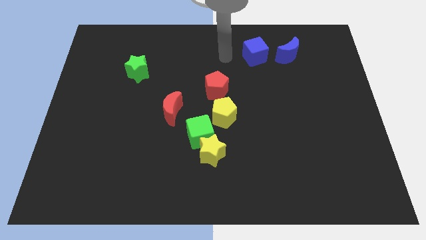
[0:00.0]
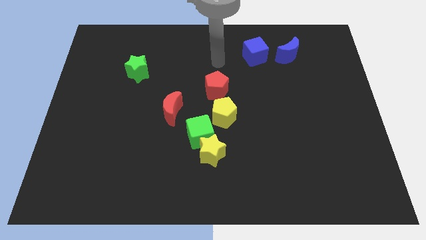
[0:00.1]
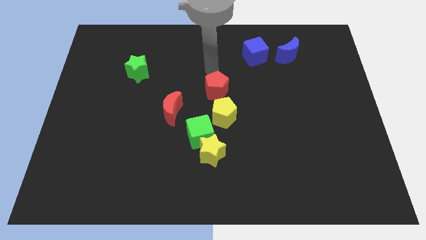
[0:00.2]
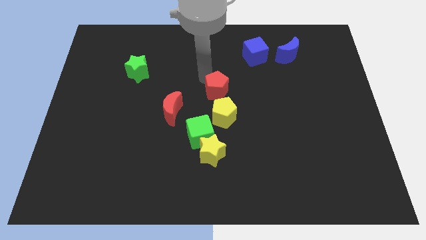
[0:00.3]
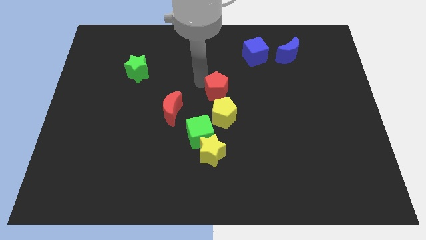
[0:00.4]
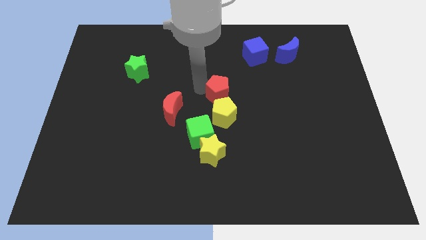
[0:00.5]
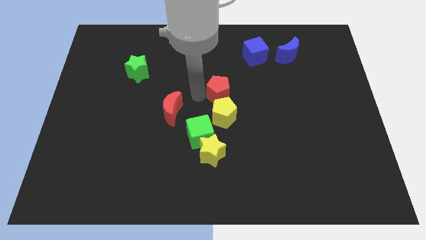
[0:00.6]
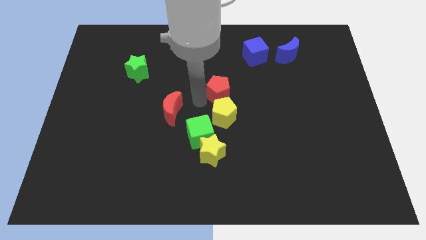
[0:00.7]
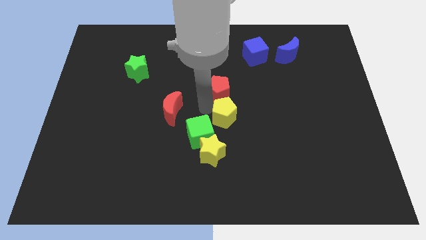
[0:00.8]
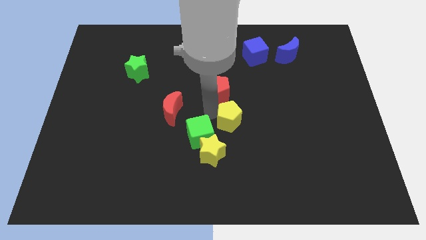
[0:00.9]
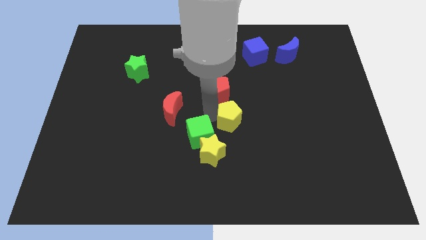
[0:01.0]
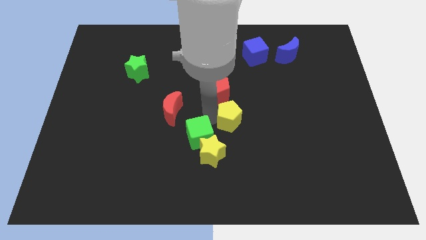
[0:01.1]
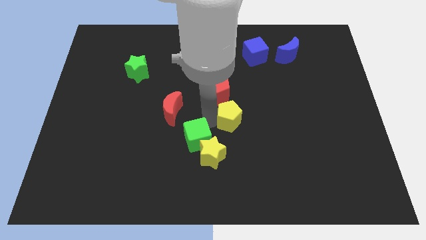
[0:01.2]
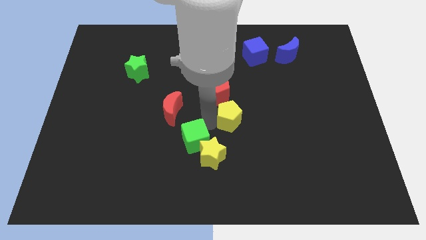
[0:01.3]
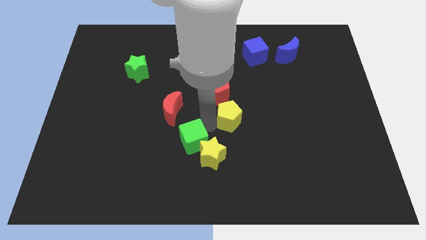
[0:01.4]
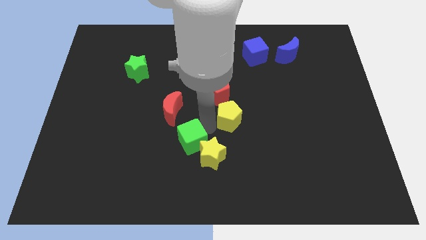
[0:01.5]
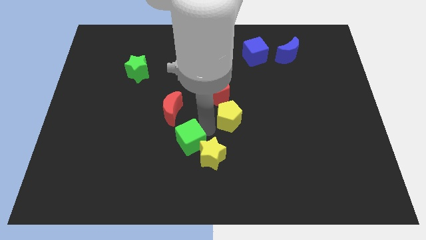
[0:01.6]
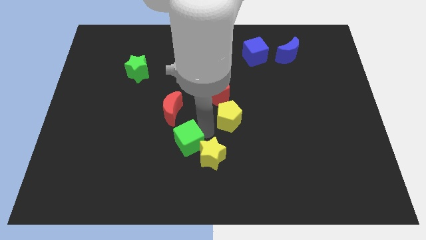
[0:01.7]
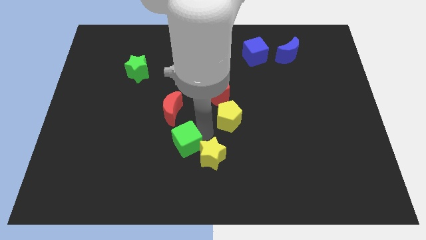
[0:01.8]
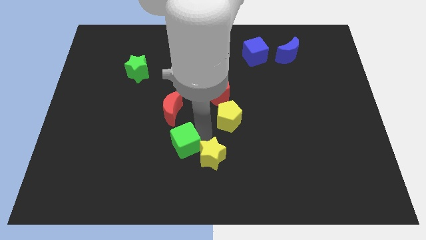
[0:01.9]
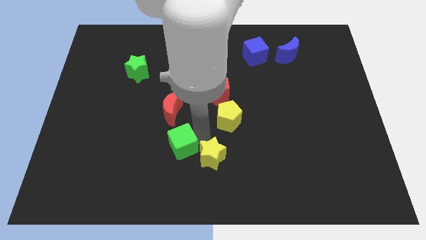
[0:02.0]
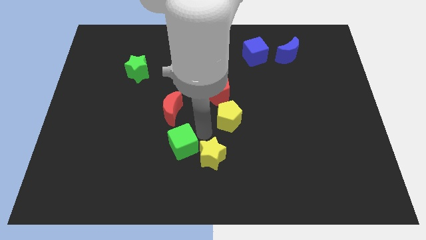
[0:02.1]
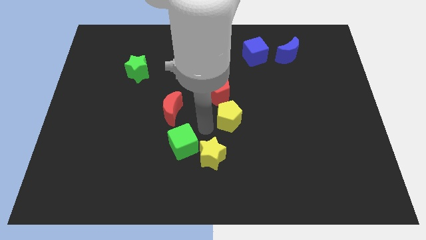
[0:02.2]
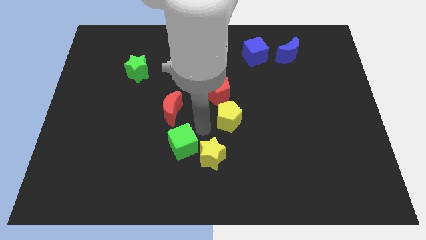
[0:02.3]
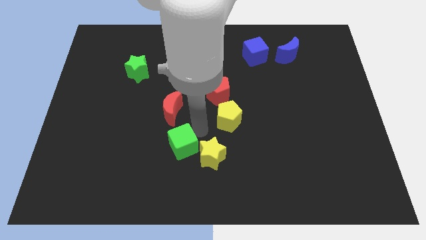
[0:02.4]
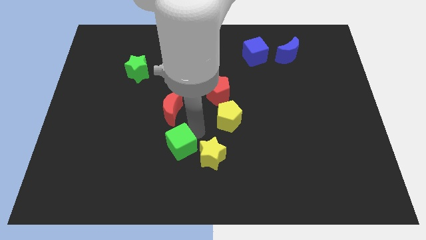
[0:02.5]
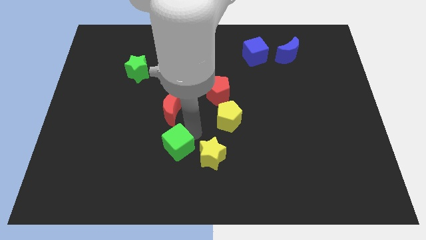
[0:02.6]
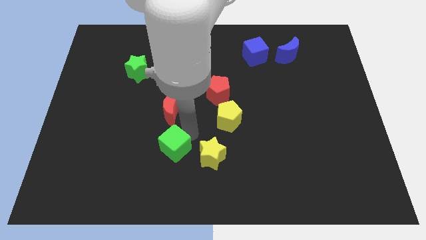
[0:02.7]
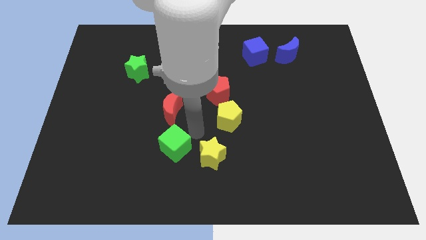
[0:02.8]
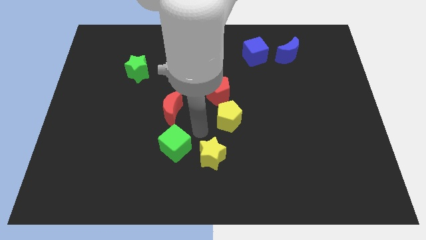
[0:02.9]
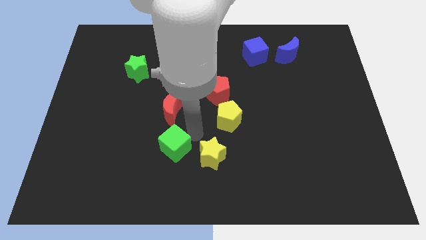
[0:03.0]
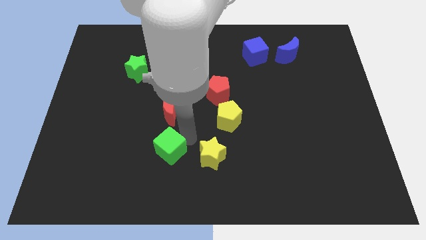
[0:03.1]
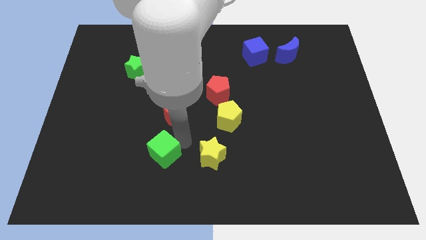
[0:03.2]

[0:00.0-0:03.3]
separate the green cube from the group

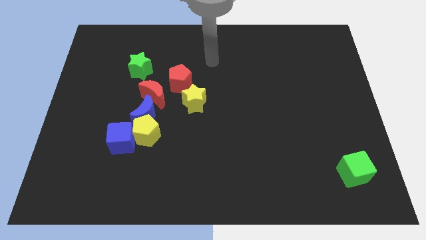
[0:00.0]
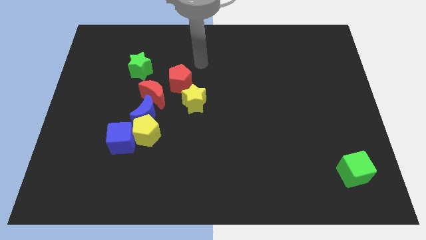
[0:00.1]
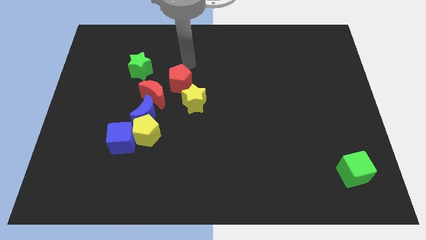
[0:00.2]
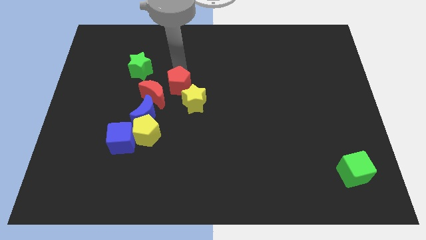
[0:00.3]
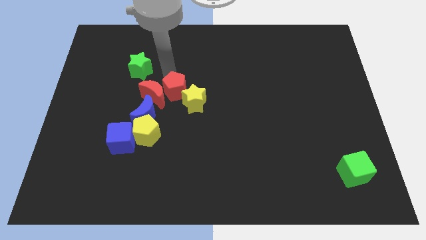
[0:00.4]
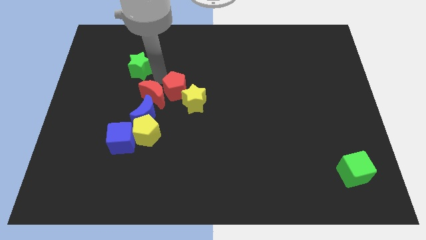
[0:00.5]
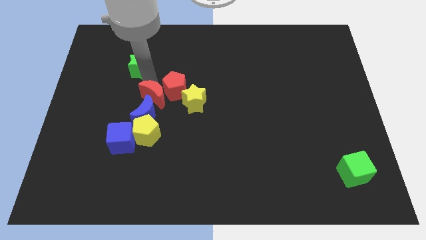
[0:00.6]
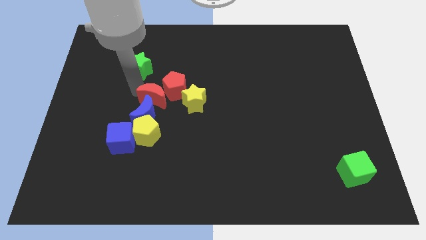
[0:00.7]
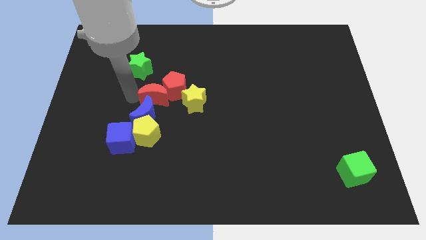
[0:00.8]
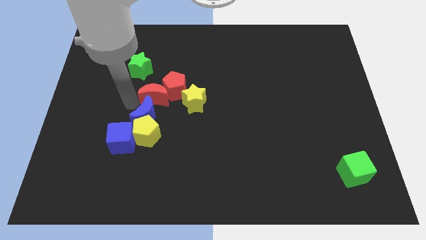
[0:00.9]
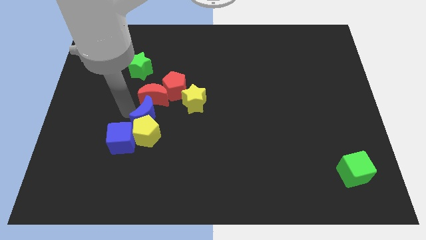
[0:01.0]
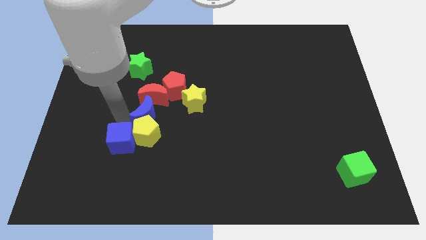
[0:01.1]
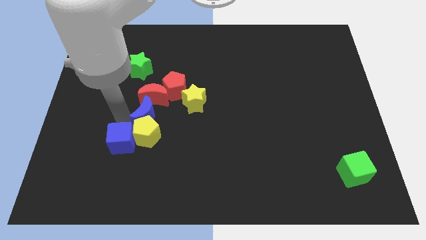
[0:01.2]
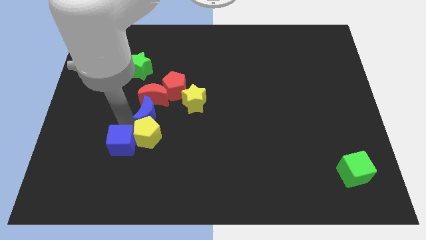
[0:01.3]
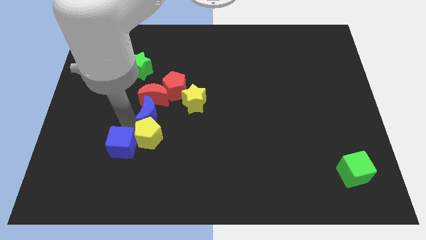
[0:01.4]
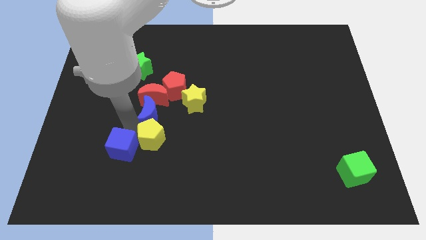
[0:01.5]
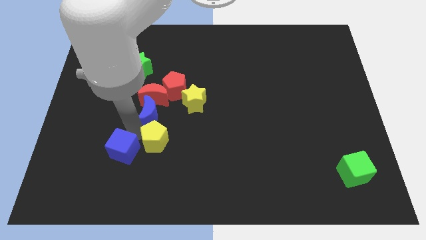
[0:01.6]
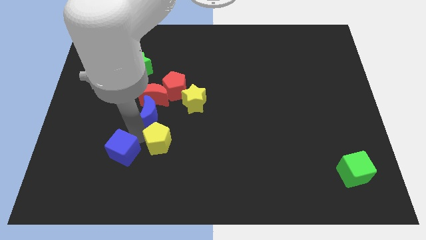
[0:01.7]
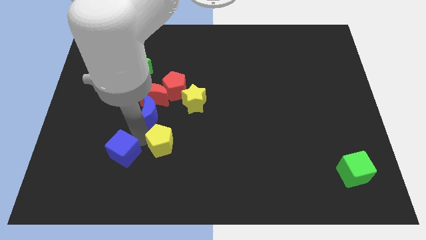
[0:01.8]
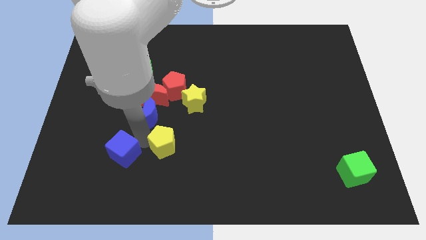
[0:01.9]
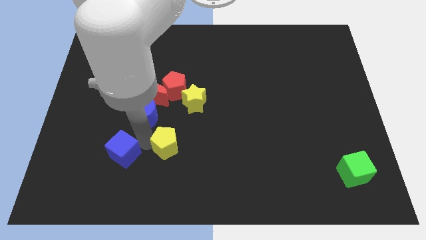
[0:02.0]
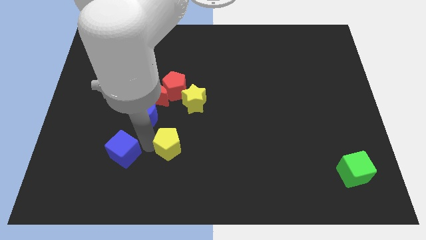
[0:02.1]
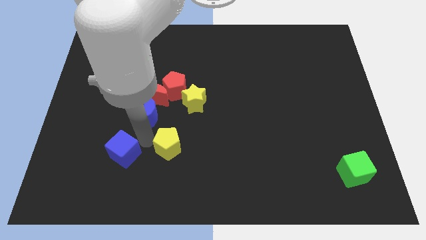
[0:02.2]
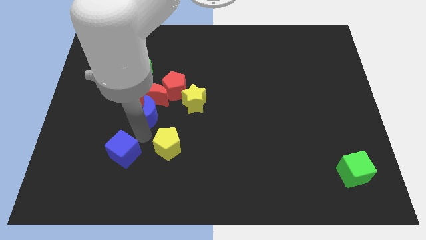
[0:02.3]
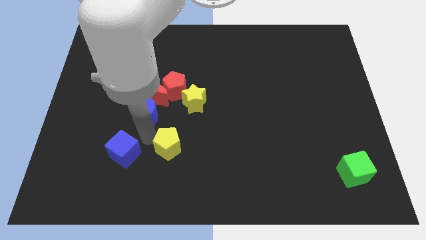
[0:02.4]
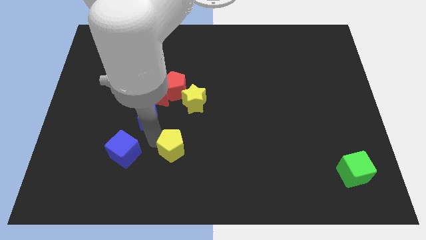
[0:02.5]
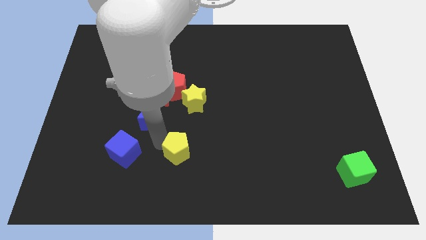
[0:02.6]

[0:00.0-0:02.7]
pull the yellow pentagon apart from the blue moon and blue cube

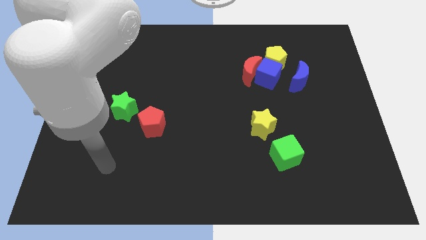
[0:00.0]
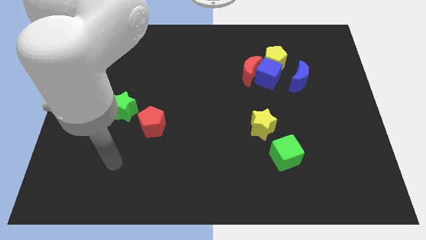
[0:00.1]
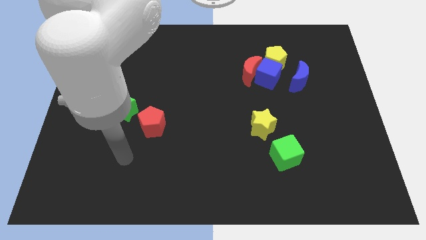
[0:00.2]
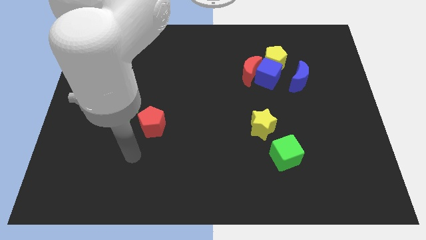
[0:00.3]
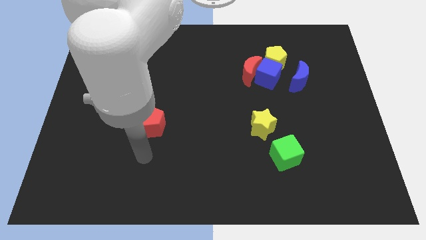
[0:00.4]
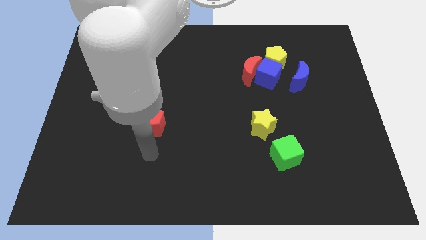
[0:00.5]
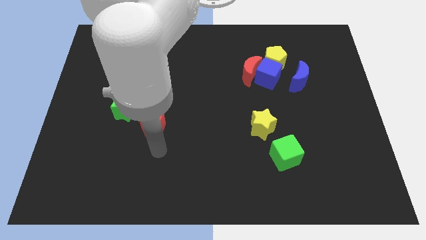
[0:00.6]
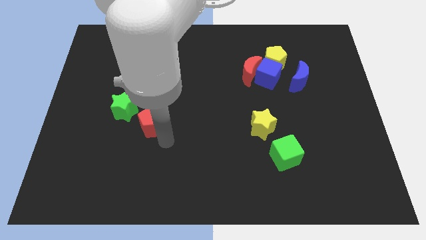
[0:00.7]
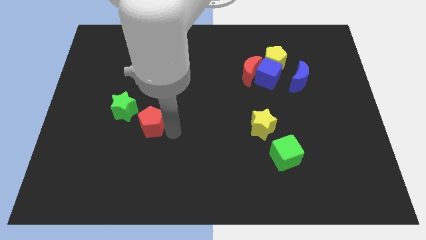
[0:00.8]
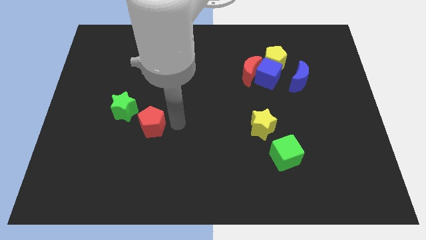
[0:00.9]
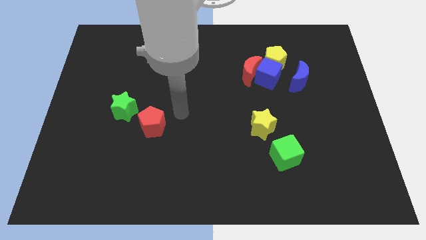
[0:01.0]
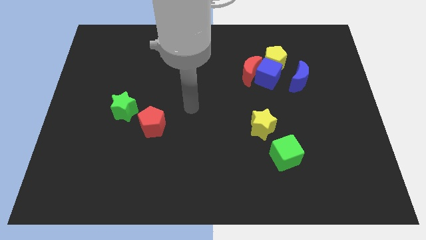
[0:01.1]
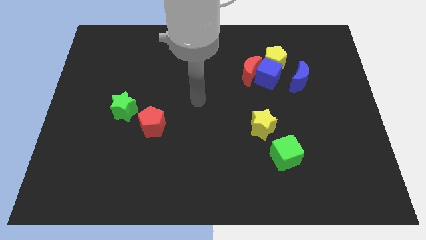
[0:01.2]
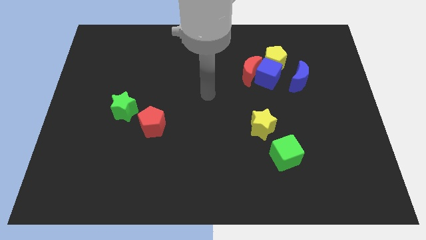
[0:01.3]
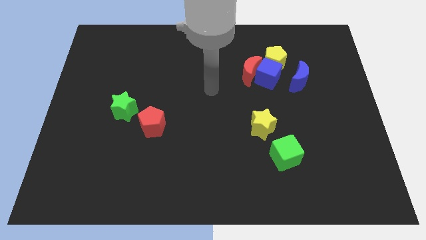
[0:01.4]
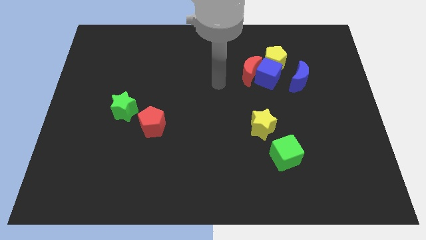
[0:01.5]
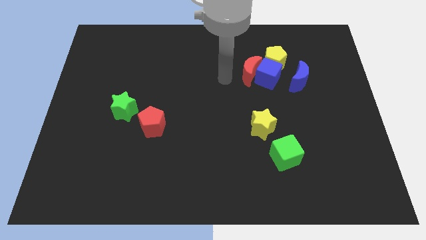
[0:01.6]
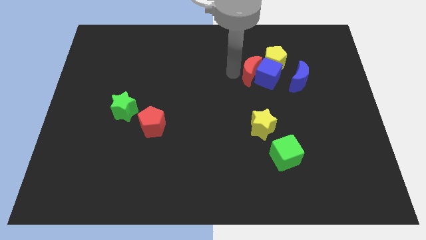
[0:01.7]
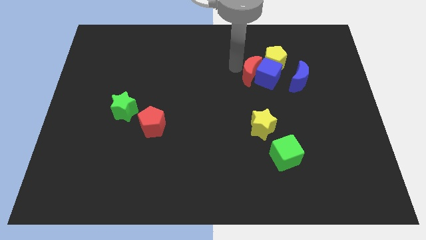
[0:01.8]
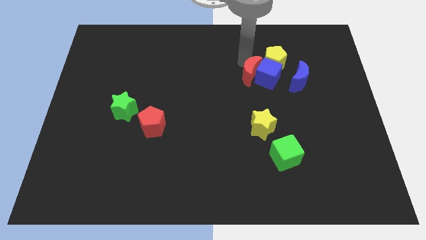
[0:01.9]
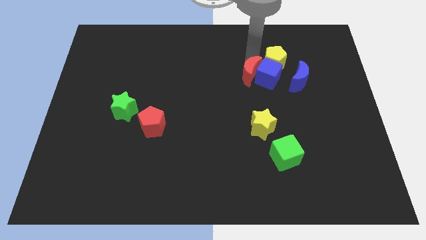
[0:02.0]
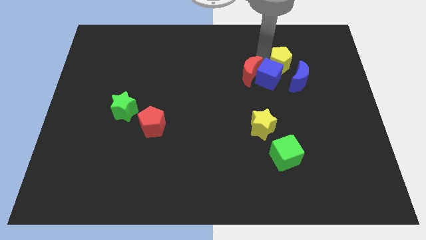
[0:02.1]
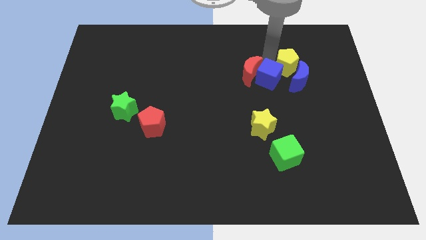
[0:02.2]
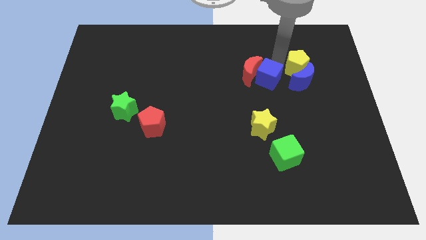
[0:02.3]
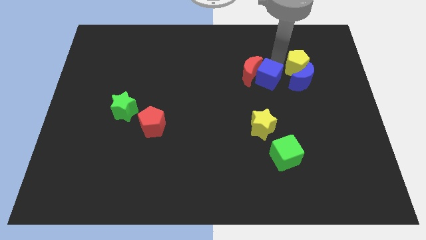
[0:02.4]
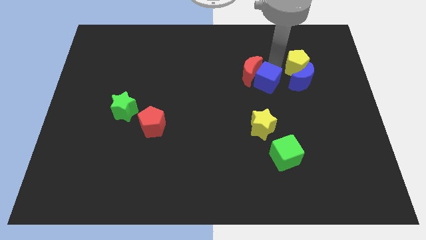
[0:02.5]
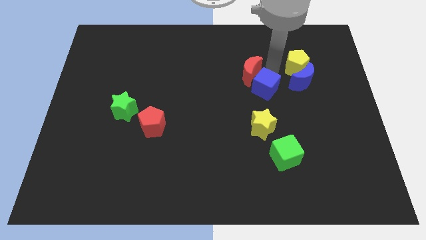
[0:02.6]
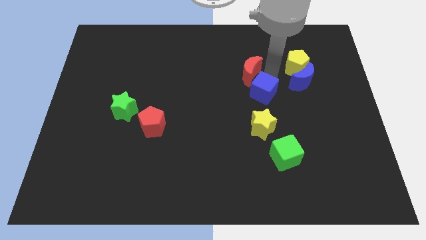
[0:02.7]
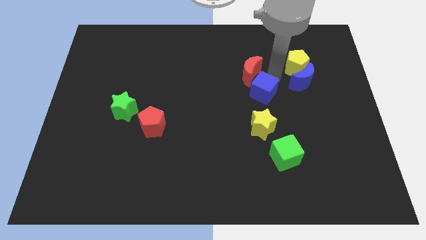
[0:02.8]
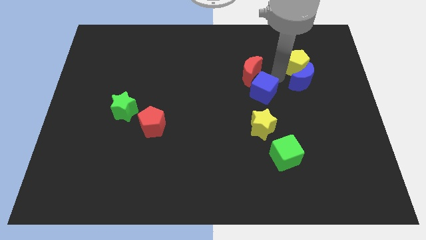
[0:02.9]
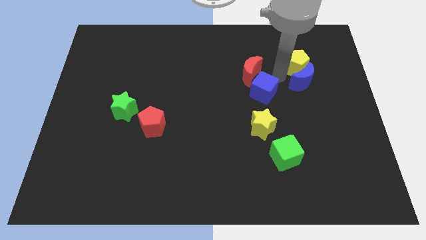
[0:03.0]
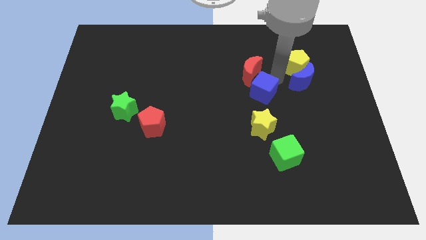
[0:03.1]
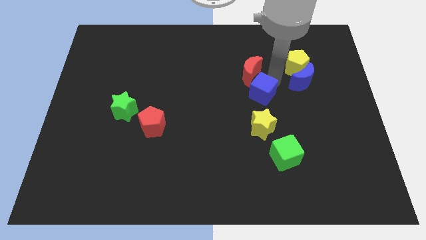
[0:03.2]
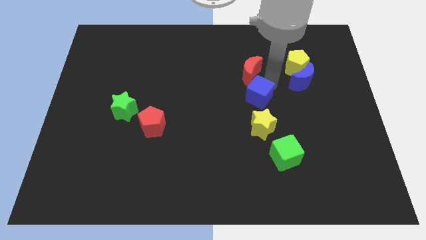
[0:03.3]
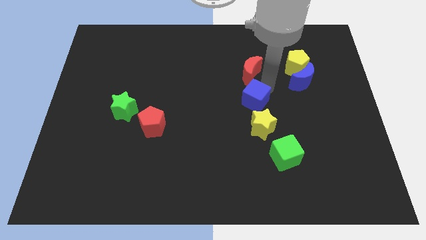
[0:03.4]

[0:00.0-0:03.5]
separate the blue cube from the red moon, yellow pentagon, and blue moon
